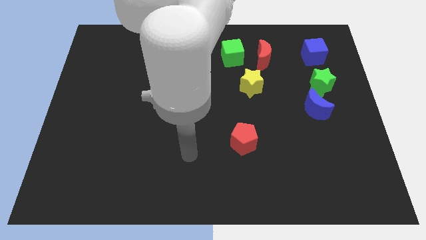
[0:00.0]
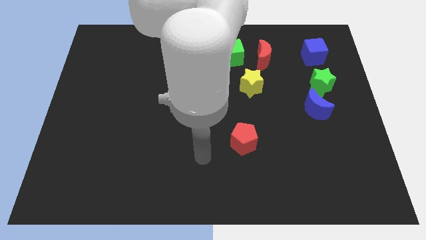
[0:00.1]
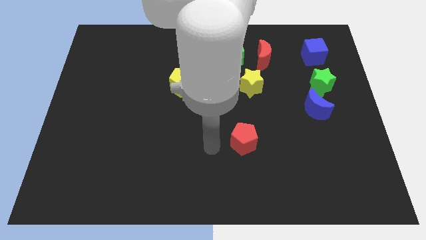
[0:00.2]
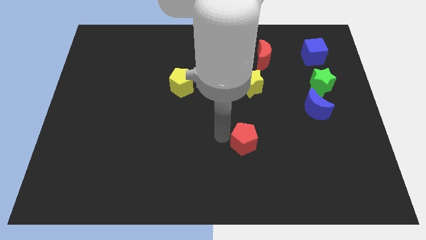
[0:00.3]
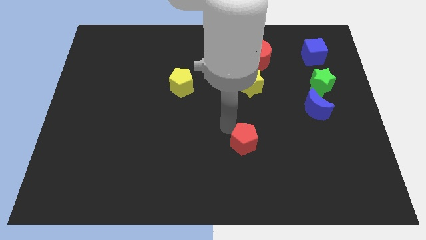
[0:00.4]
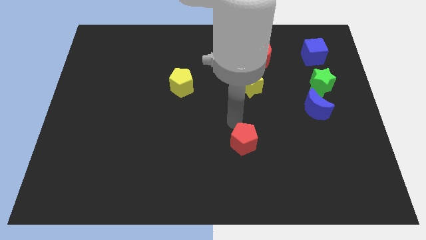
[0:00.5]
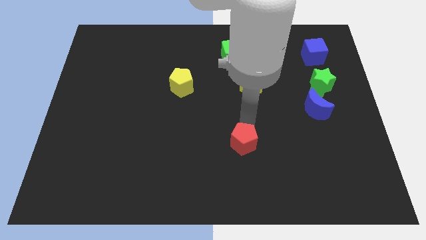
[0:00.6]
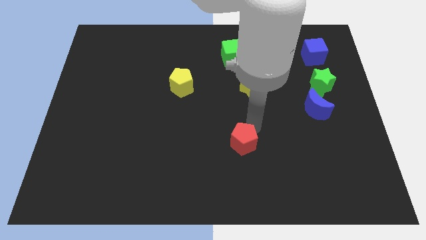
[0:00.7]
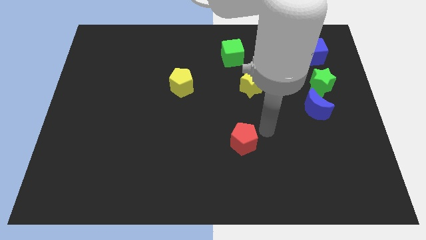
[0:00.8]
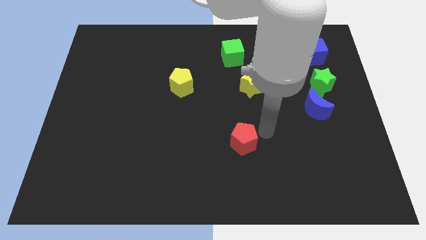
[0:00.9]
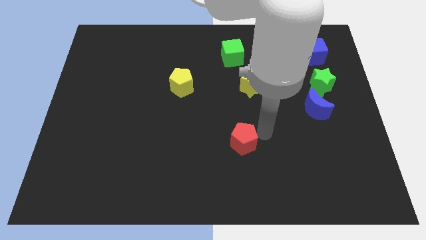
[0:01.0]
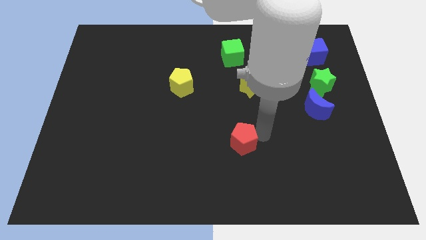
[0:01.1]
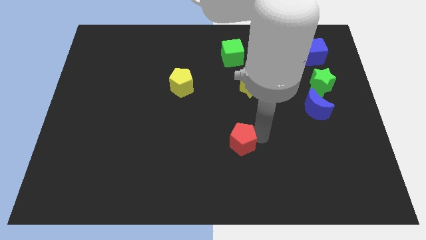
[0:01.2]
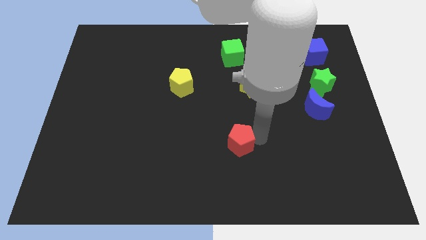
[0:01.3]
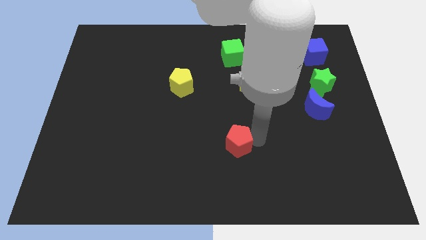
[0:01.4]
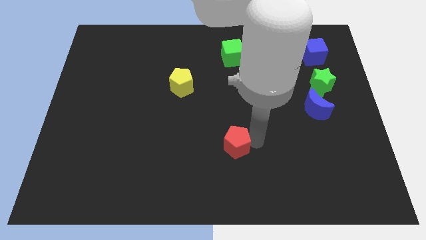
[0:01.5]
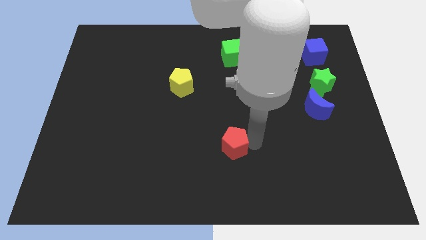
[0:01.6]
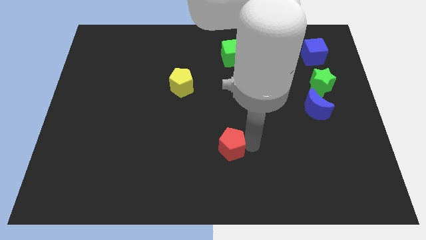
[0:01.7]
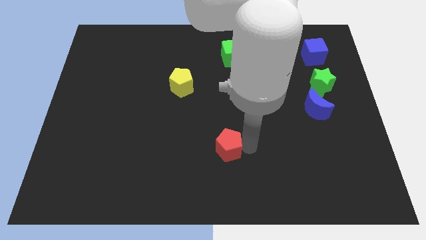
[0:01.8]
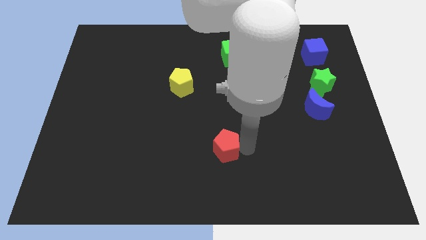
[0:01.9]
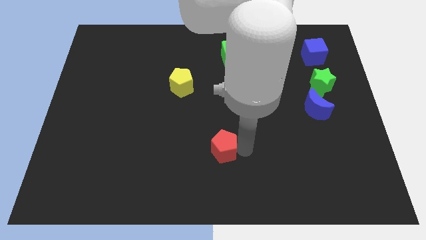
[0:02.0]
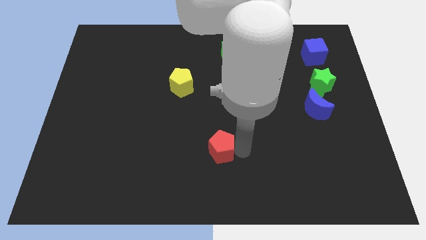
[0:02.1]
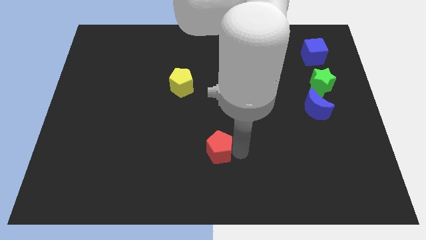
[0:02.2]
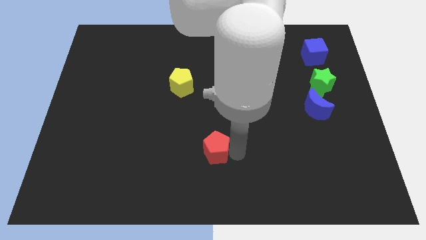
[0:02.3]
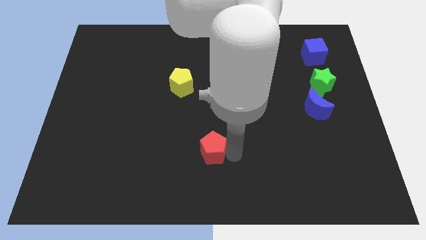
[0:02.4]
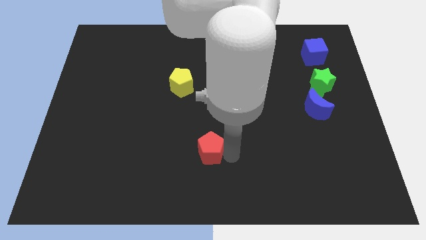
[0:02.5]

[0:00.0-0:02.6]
slightly push the red pentagon to the left

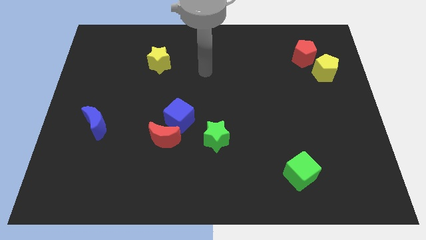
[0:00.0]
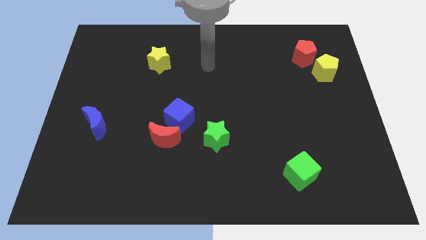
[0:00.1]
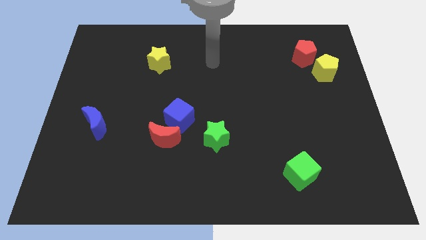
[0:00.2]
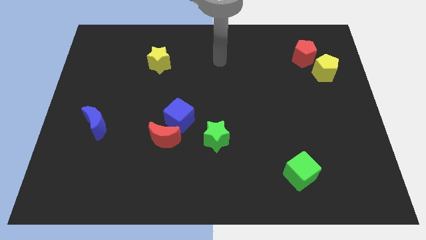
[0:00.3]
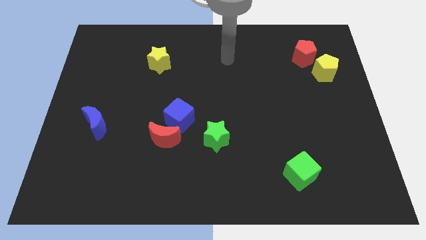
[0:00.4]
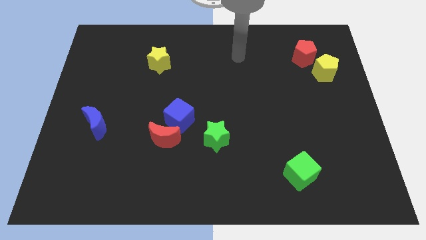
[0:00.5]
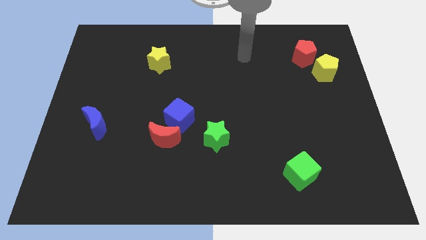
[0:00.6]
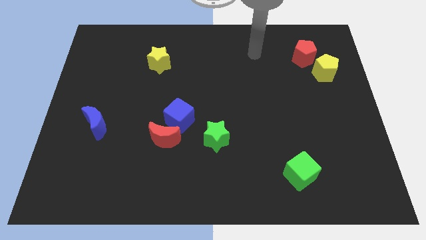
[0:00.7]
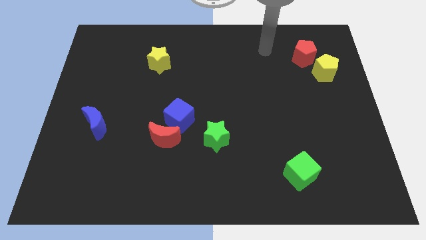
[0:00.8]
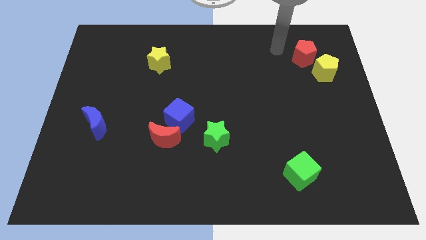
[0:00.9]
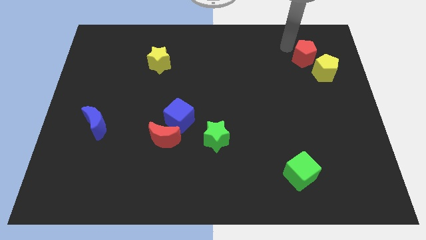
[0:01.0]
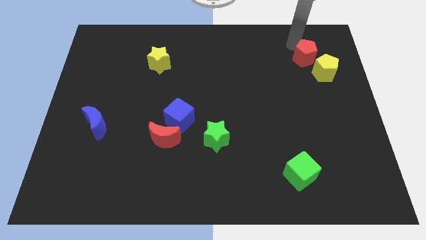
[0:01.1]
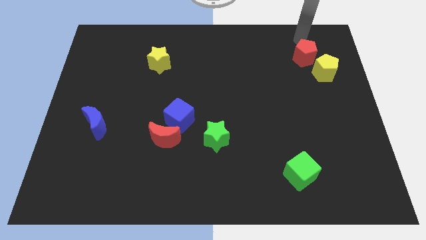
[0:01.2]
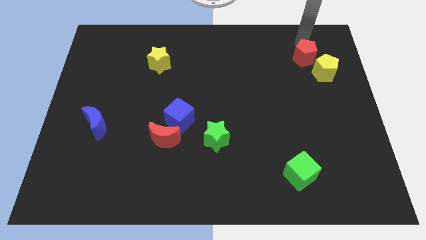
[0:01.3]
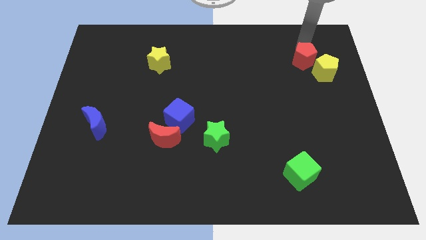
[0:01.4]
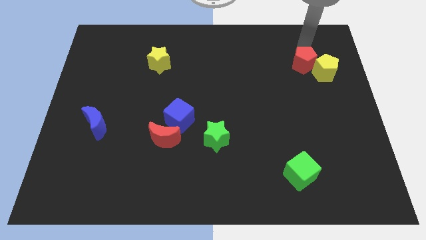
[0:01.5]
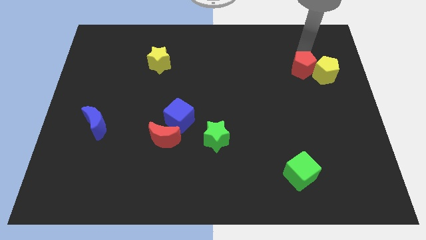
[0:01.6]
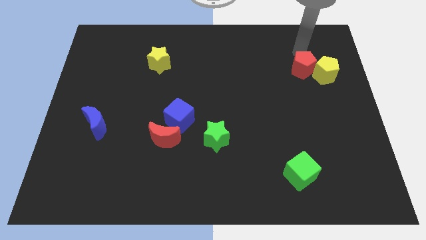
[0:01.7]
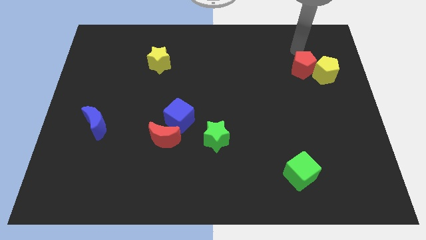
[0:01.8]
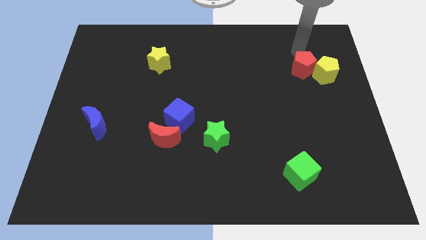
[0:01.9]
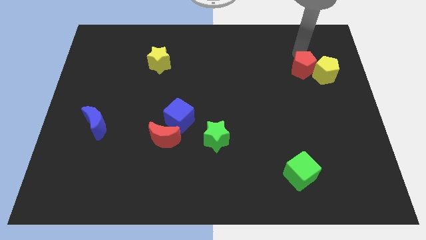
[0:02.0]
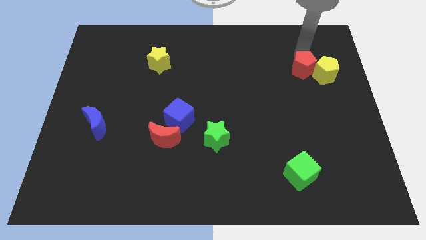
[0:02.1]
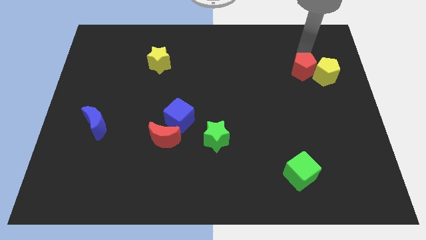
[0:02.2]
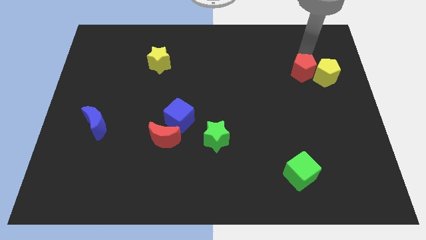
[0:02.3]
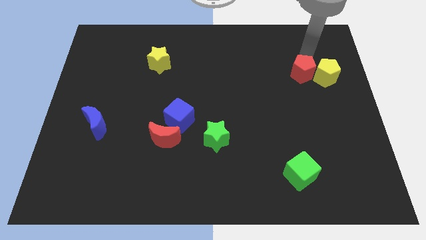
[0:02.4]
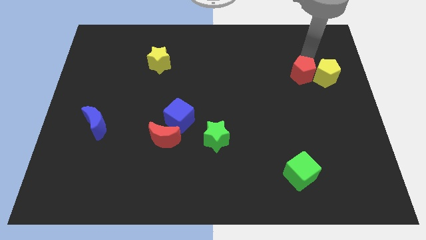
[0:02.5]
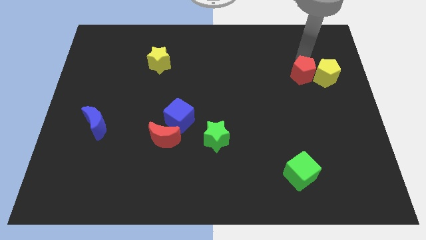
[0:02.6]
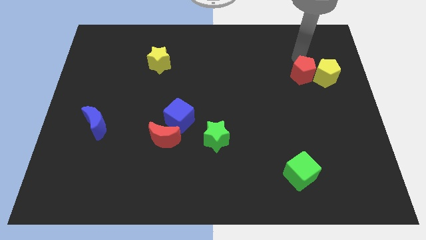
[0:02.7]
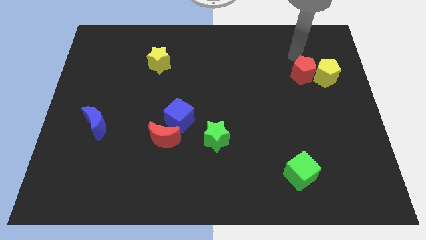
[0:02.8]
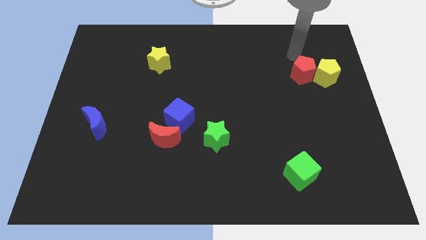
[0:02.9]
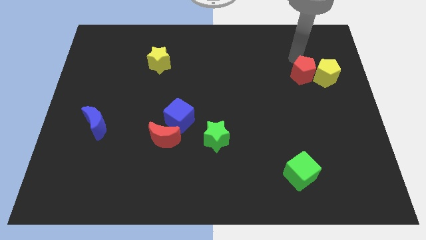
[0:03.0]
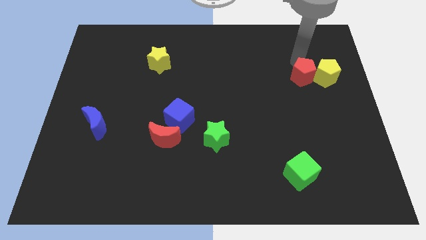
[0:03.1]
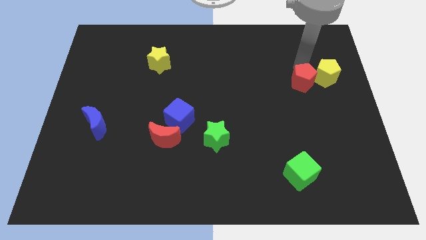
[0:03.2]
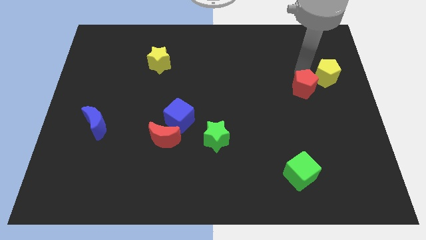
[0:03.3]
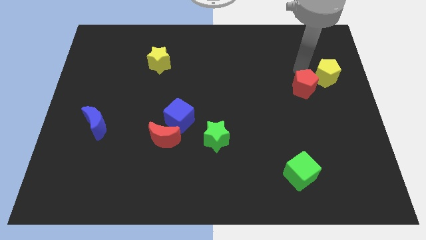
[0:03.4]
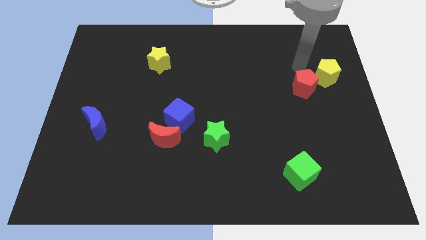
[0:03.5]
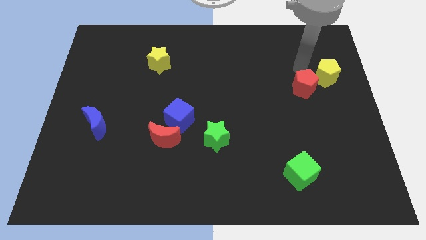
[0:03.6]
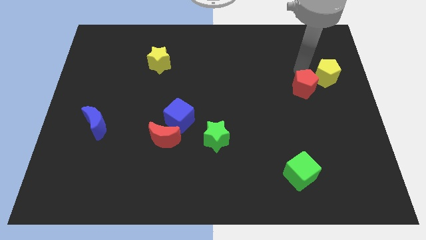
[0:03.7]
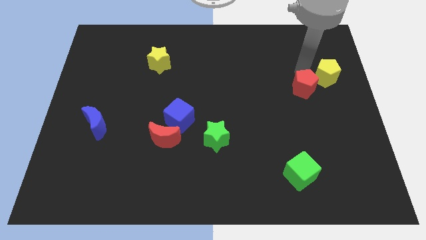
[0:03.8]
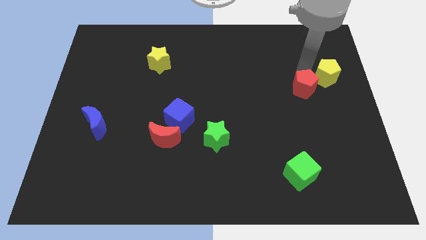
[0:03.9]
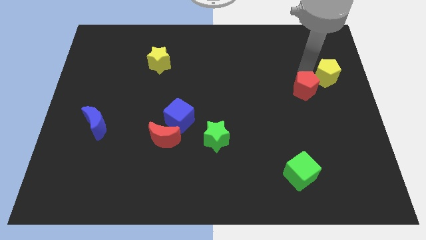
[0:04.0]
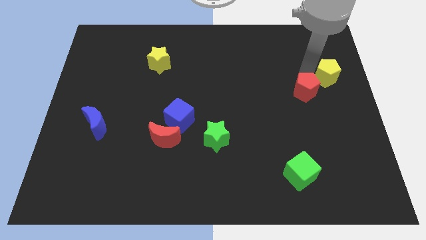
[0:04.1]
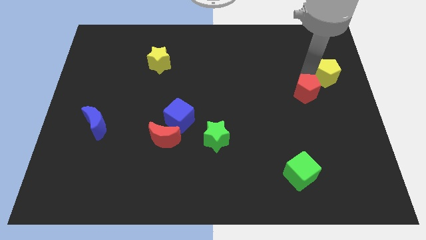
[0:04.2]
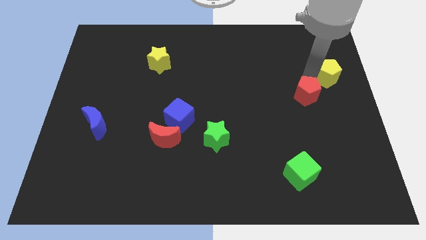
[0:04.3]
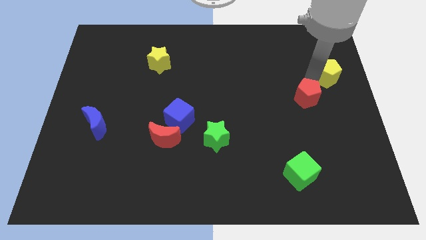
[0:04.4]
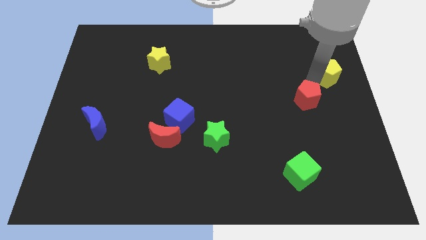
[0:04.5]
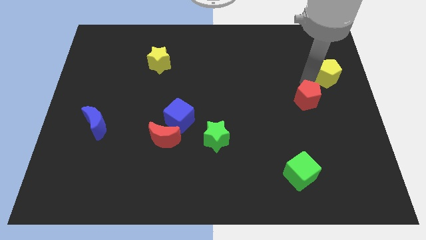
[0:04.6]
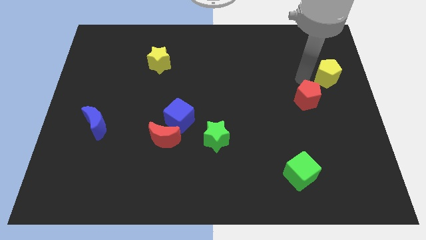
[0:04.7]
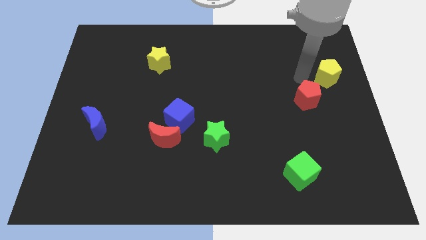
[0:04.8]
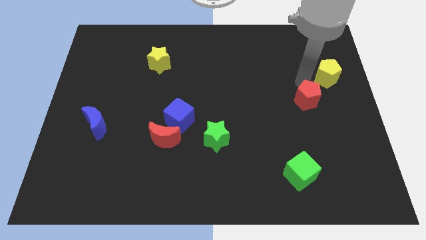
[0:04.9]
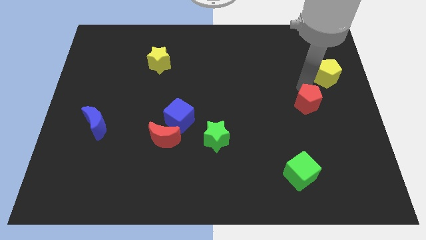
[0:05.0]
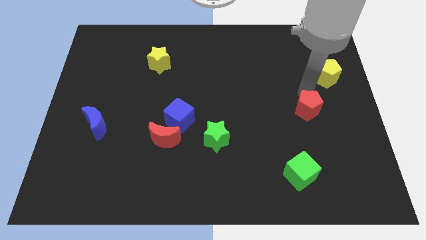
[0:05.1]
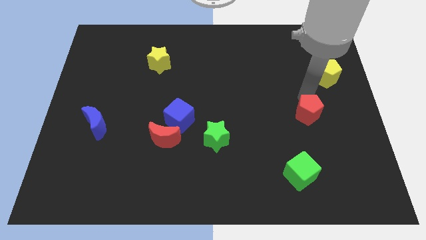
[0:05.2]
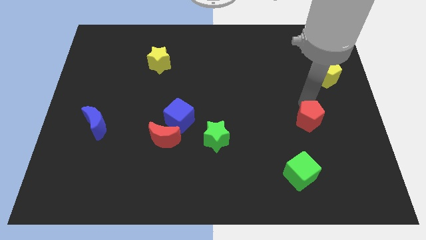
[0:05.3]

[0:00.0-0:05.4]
move the red pentagon down
